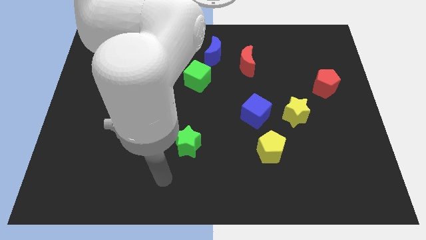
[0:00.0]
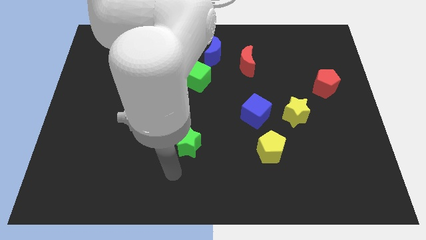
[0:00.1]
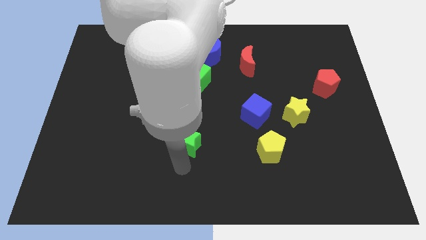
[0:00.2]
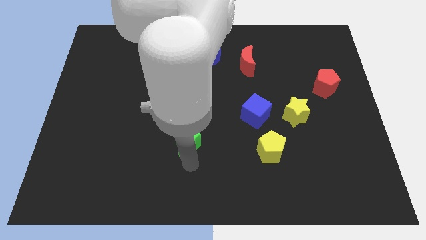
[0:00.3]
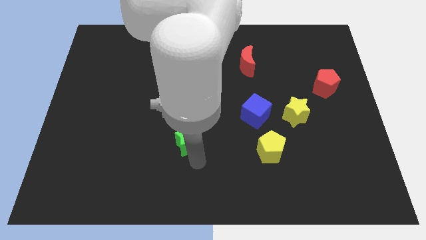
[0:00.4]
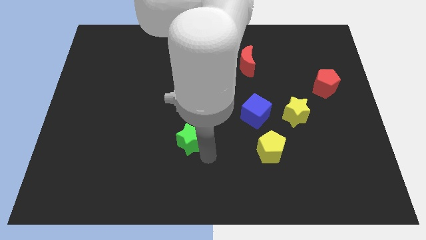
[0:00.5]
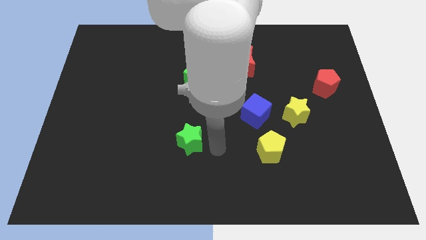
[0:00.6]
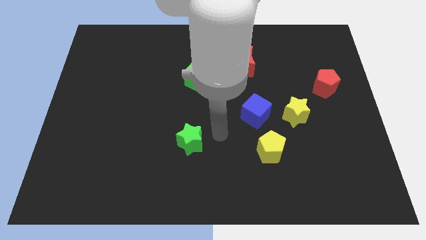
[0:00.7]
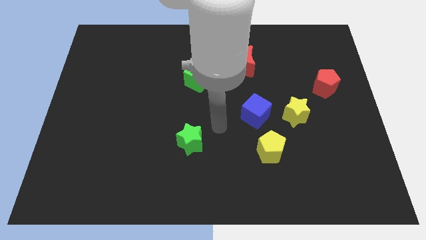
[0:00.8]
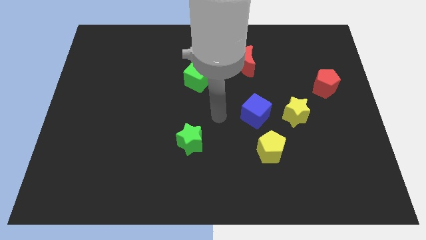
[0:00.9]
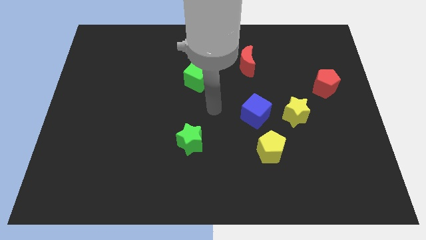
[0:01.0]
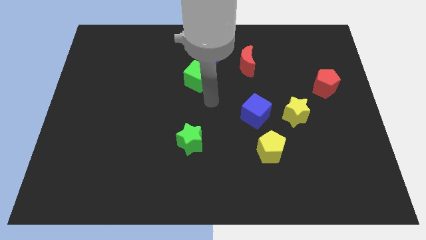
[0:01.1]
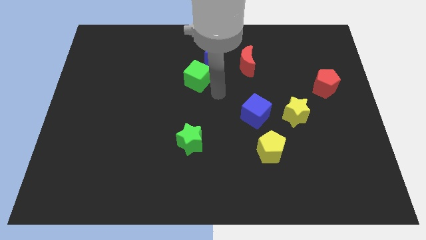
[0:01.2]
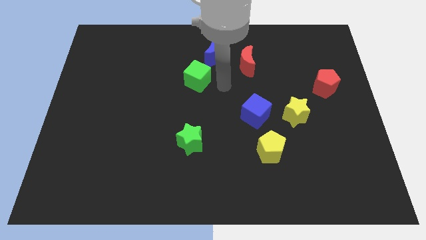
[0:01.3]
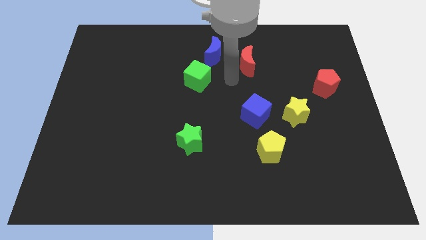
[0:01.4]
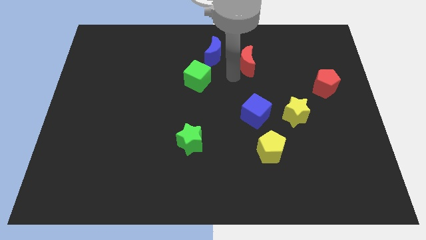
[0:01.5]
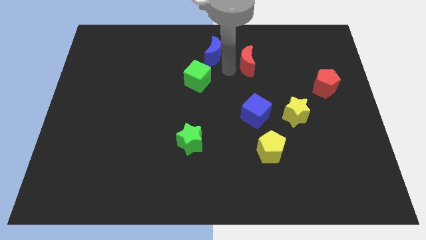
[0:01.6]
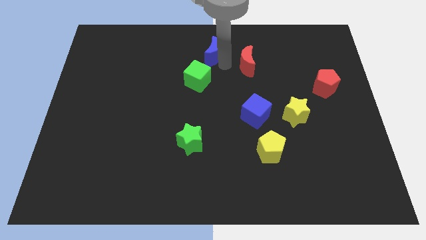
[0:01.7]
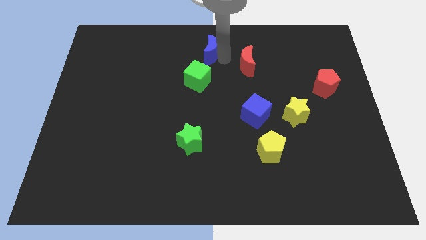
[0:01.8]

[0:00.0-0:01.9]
move the red moon away from the blue moon

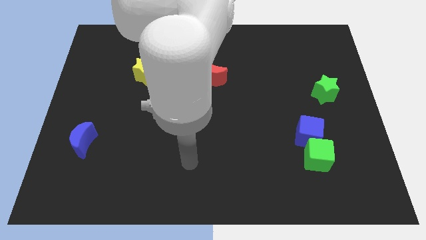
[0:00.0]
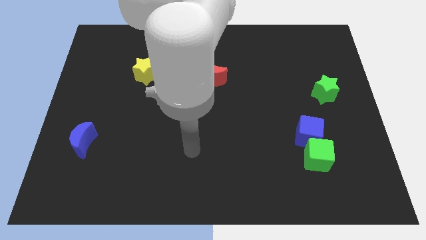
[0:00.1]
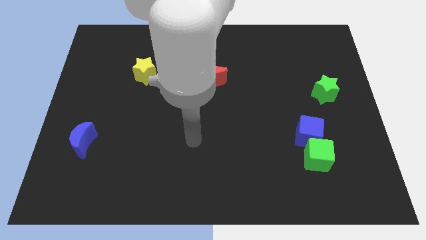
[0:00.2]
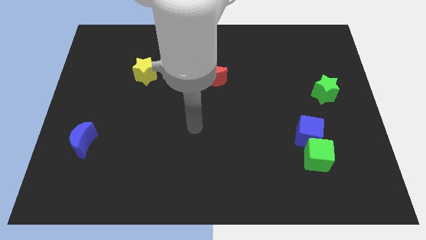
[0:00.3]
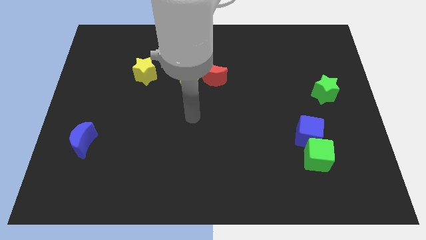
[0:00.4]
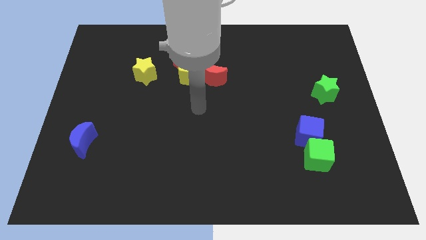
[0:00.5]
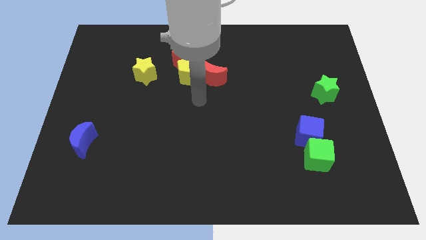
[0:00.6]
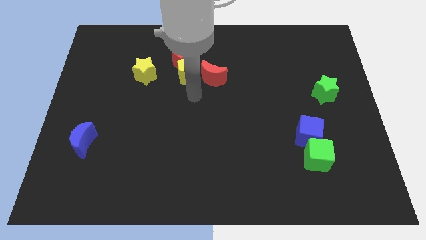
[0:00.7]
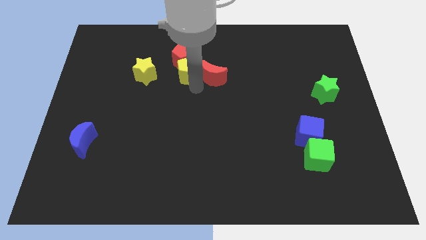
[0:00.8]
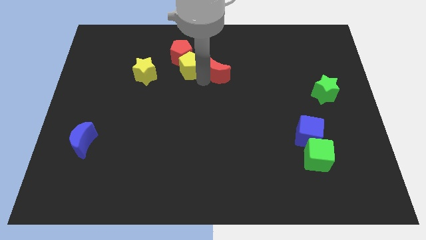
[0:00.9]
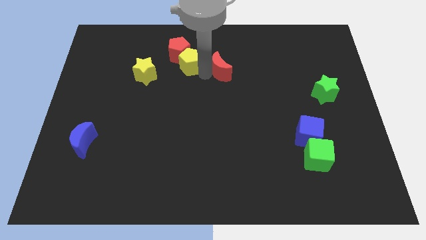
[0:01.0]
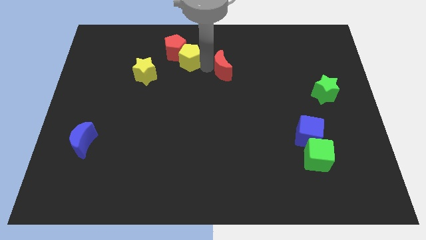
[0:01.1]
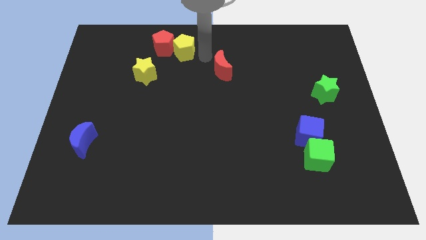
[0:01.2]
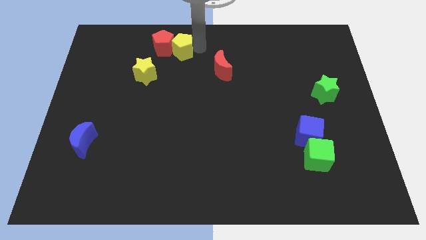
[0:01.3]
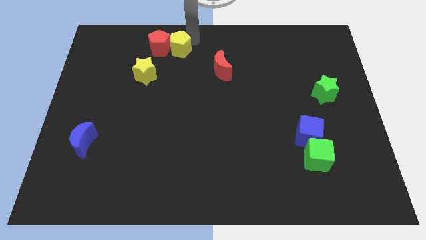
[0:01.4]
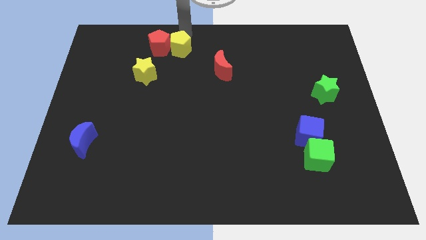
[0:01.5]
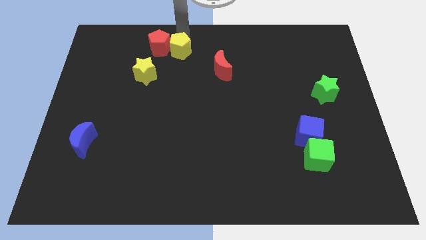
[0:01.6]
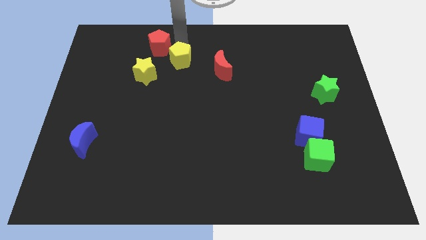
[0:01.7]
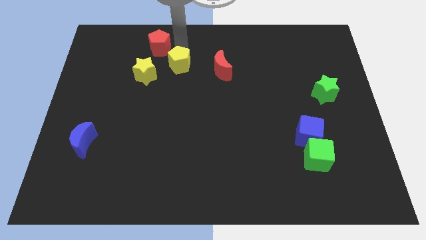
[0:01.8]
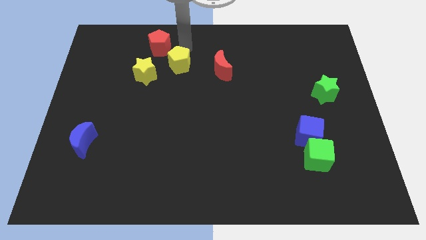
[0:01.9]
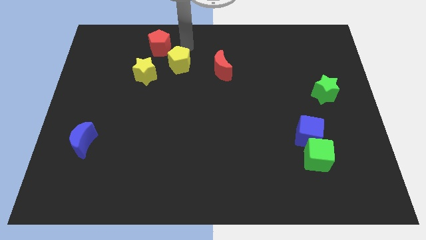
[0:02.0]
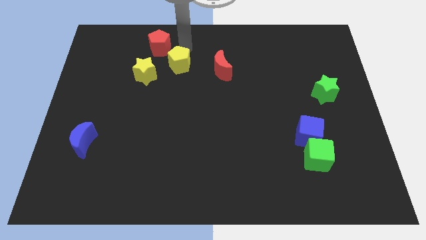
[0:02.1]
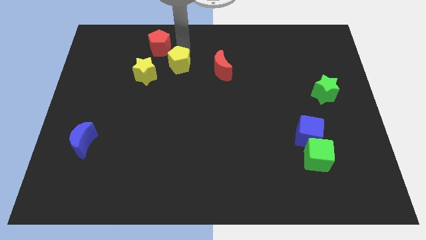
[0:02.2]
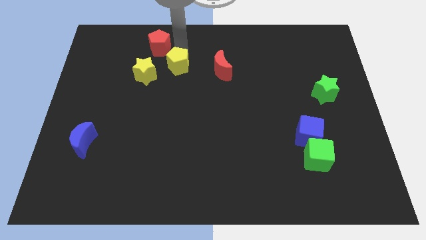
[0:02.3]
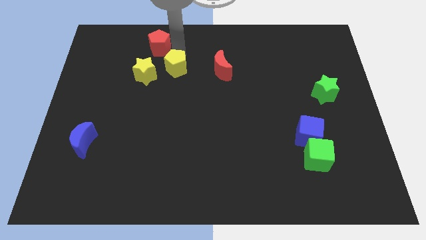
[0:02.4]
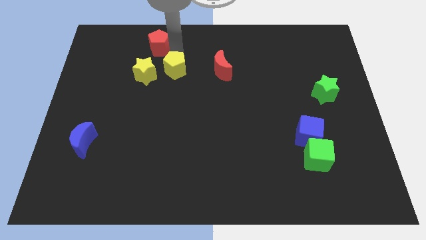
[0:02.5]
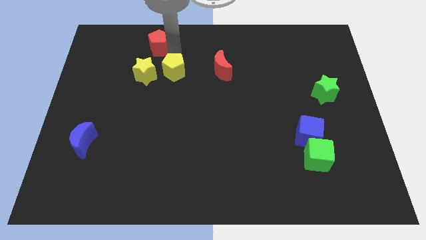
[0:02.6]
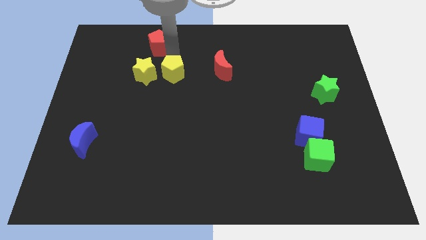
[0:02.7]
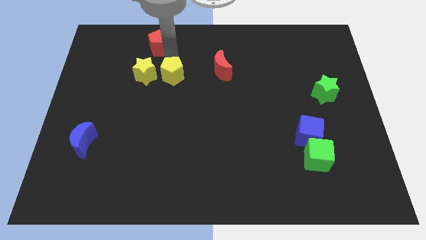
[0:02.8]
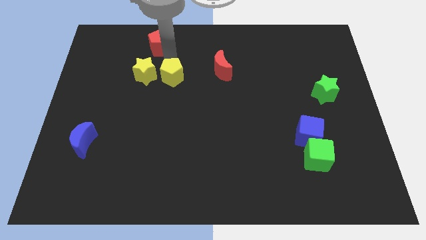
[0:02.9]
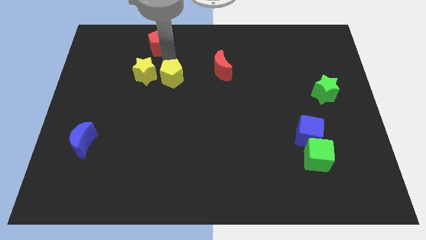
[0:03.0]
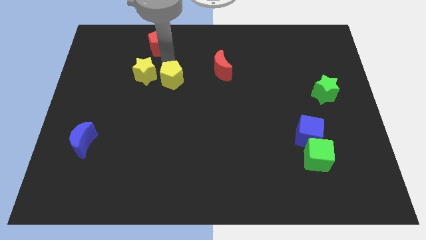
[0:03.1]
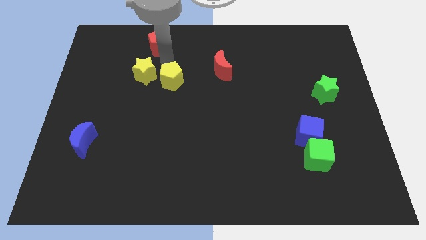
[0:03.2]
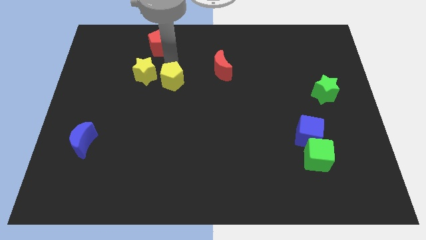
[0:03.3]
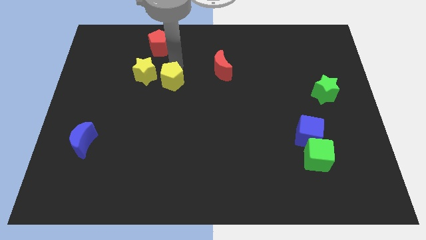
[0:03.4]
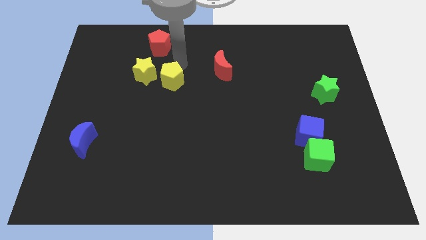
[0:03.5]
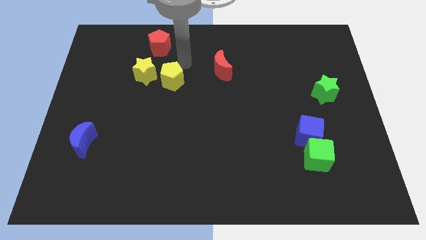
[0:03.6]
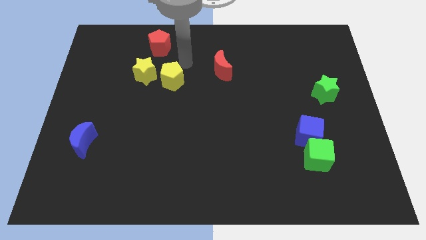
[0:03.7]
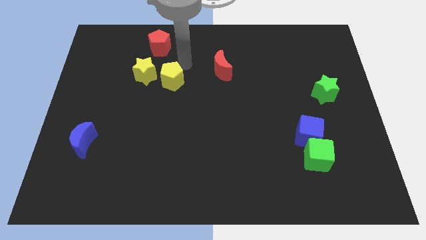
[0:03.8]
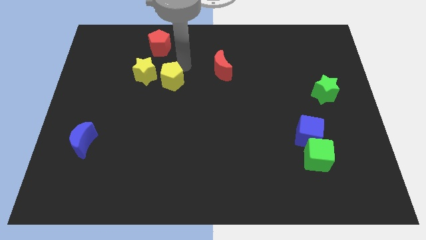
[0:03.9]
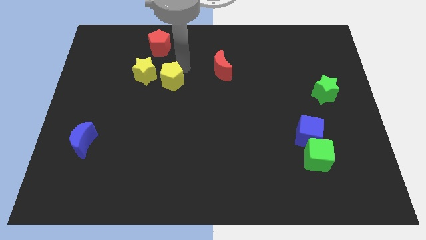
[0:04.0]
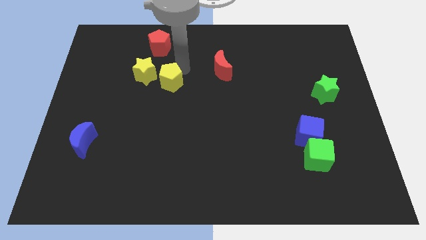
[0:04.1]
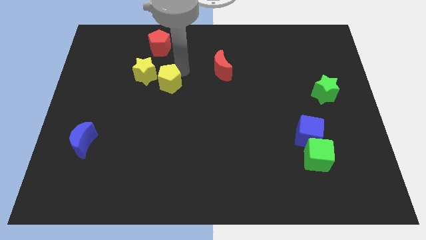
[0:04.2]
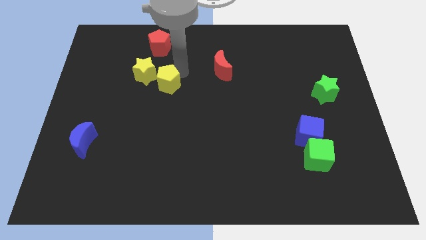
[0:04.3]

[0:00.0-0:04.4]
pull the yellow pentagon apart from the red pentagon and red moon

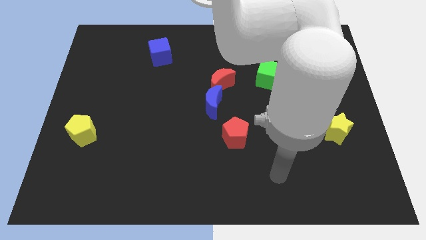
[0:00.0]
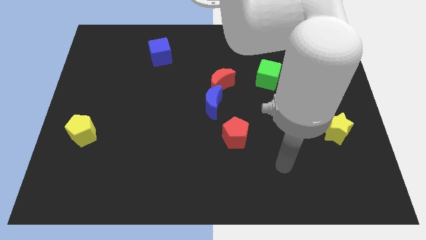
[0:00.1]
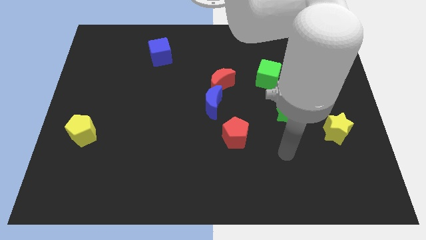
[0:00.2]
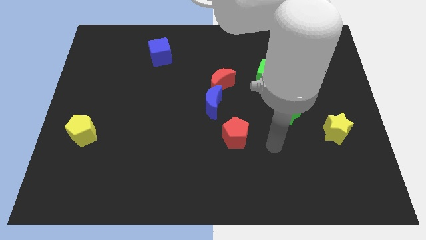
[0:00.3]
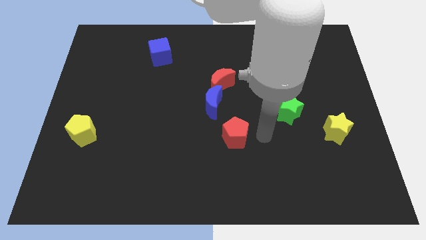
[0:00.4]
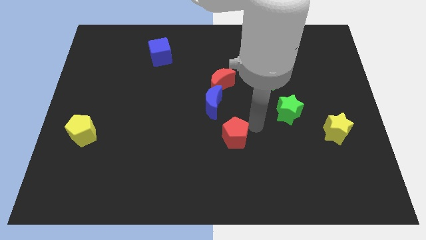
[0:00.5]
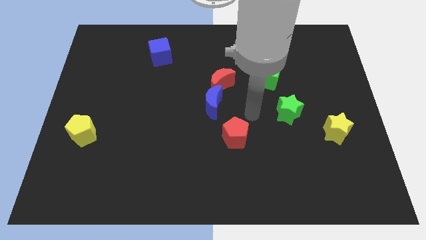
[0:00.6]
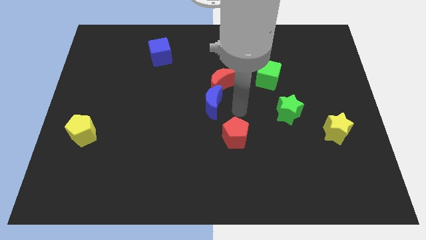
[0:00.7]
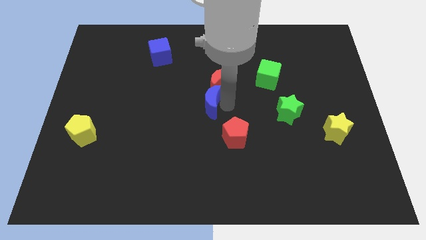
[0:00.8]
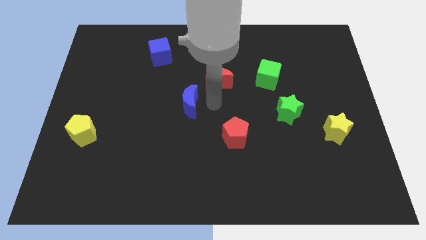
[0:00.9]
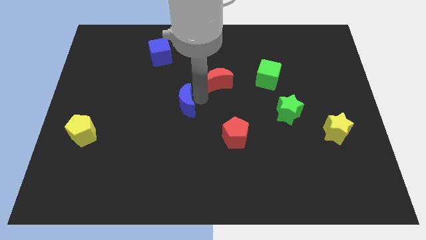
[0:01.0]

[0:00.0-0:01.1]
separate the red moon from the blue moon

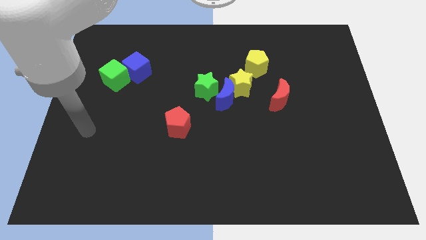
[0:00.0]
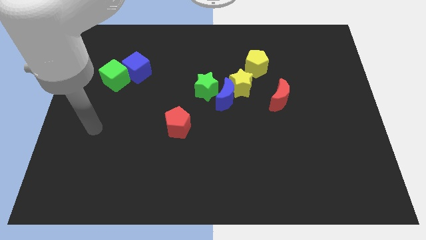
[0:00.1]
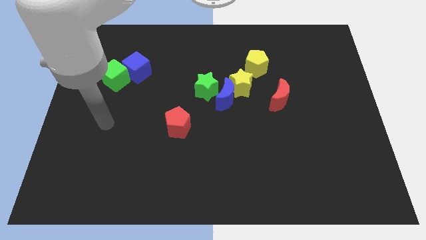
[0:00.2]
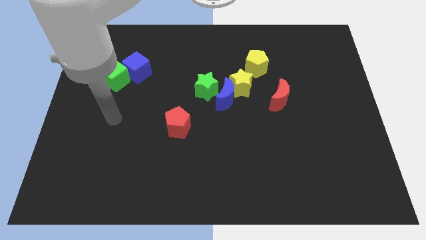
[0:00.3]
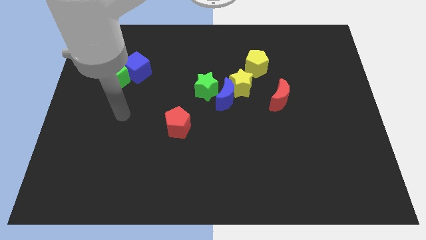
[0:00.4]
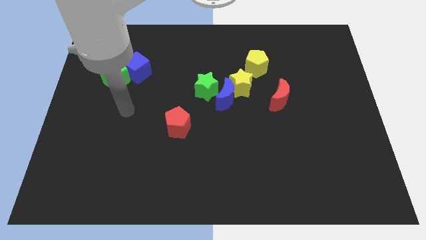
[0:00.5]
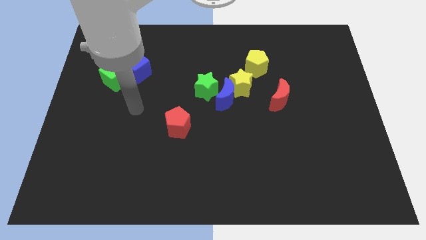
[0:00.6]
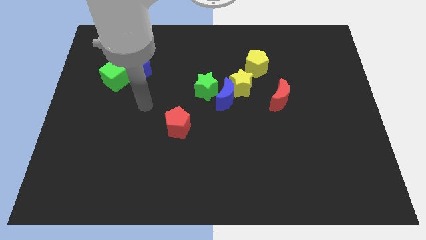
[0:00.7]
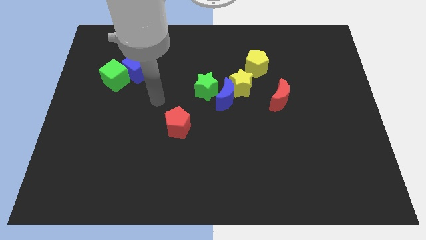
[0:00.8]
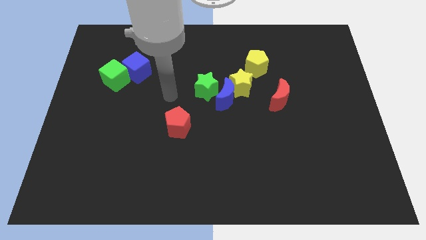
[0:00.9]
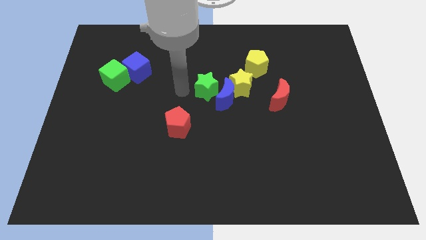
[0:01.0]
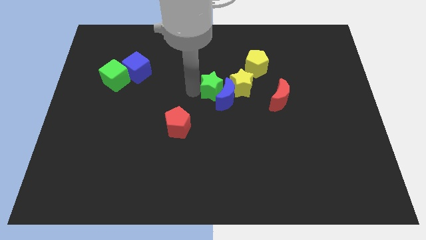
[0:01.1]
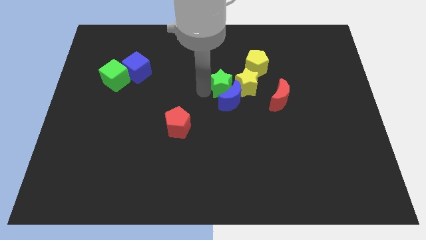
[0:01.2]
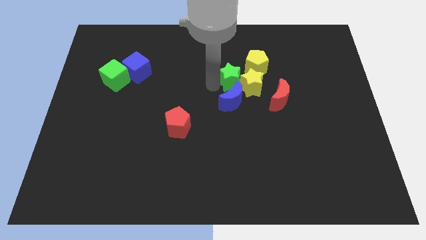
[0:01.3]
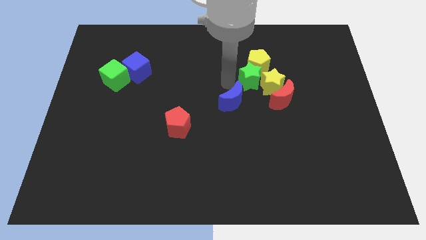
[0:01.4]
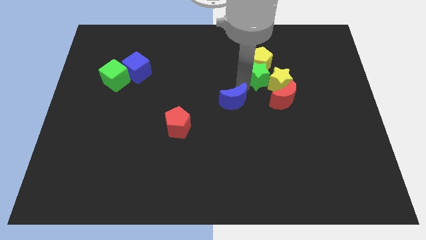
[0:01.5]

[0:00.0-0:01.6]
pull the blue moon apart from the yellow star and green star

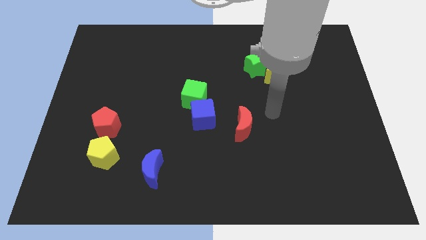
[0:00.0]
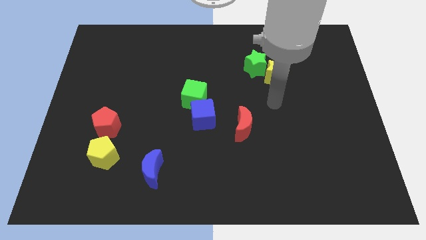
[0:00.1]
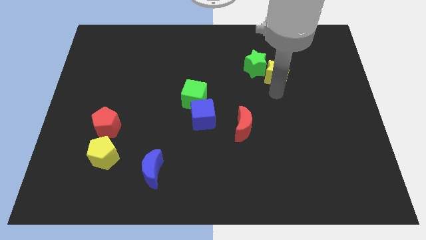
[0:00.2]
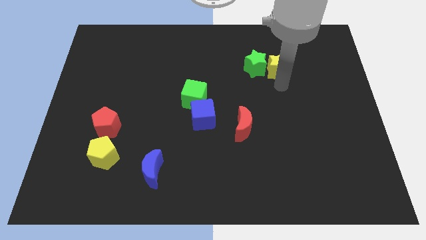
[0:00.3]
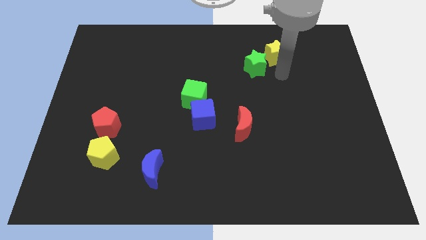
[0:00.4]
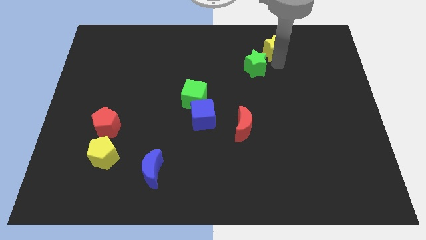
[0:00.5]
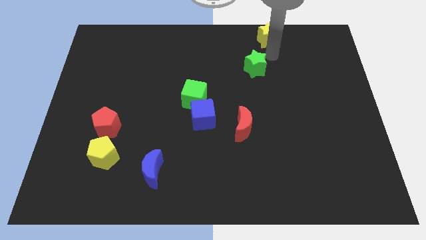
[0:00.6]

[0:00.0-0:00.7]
separate the green star from the yellow star
